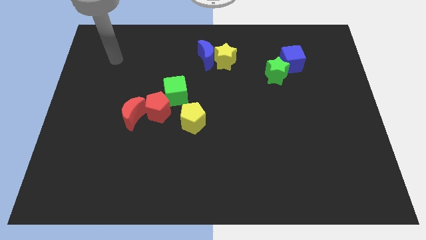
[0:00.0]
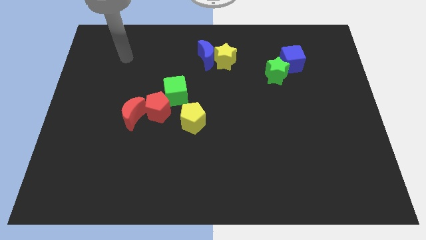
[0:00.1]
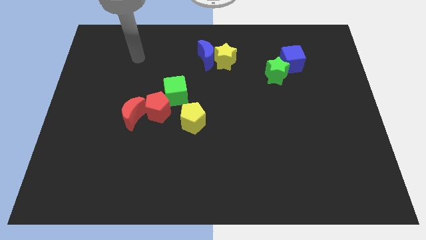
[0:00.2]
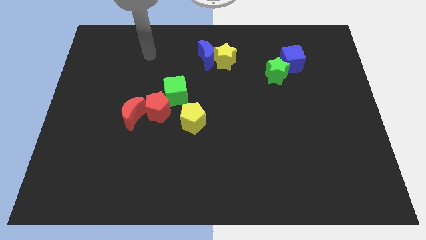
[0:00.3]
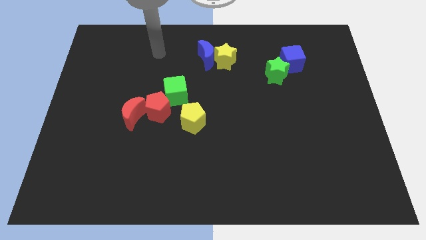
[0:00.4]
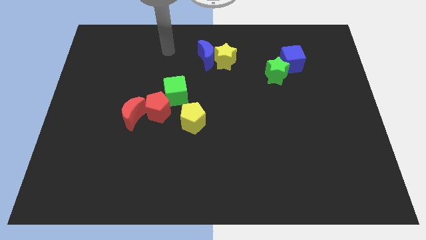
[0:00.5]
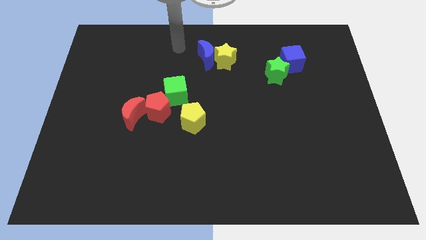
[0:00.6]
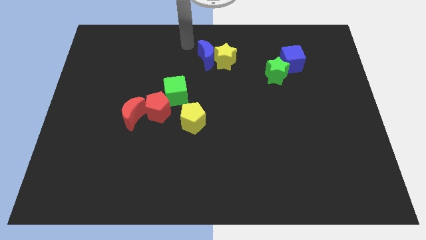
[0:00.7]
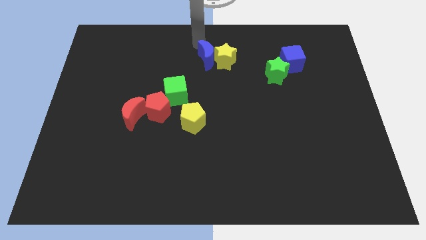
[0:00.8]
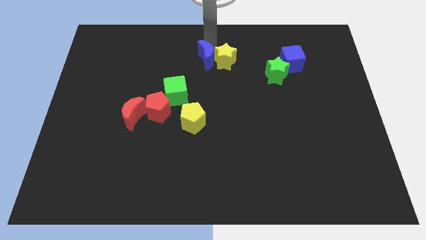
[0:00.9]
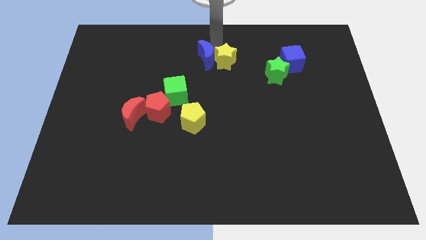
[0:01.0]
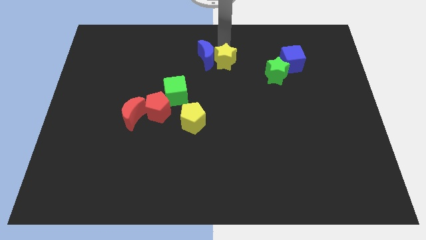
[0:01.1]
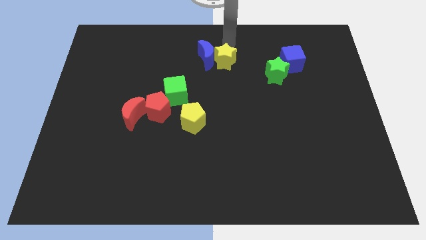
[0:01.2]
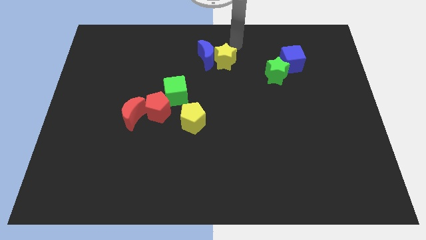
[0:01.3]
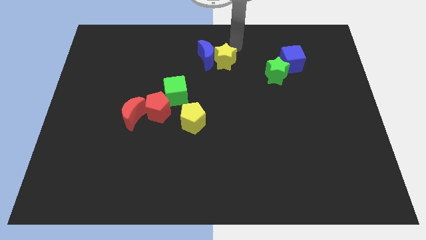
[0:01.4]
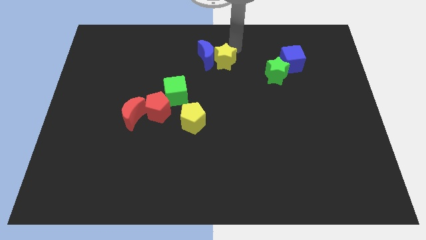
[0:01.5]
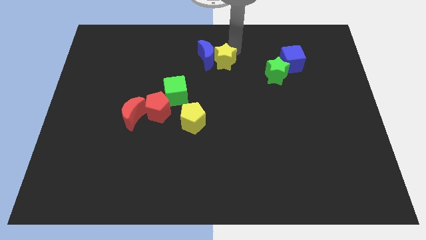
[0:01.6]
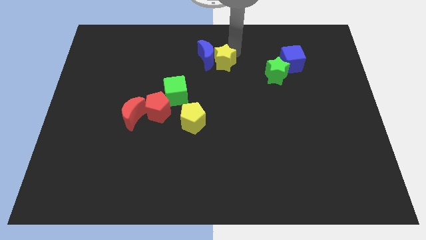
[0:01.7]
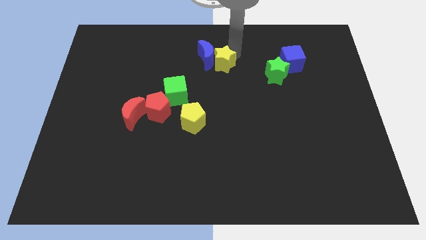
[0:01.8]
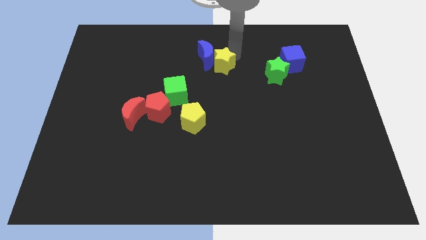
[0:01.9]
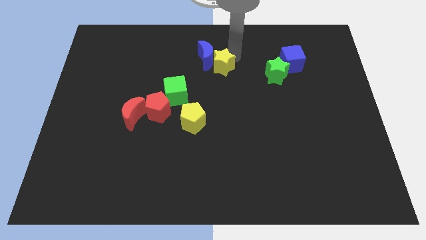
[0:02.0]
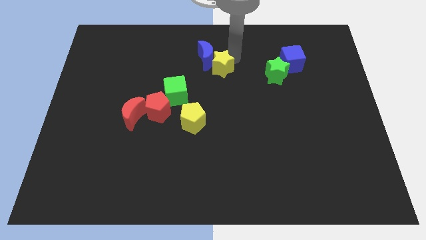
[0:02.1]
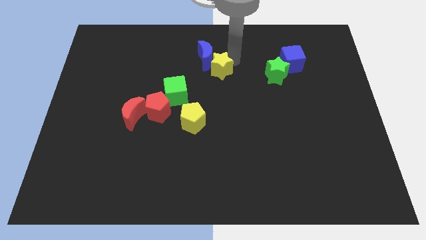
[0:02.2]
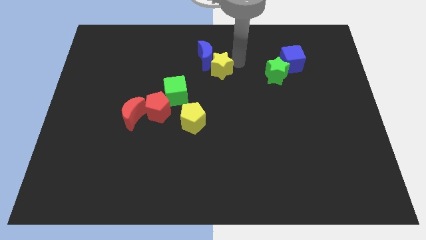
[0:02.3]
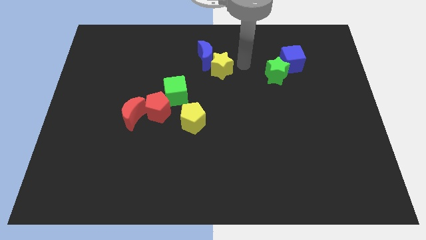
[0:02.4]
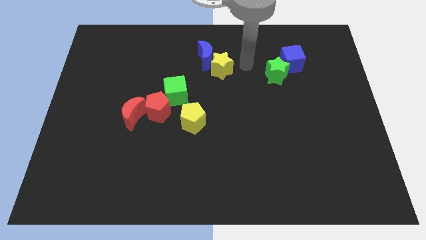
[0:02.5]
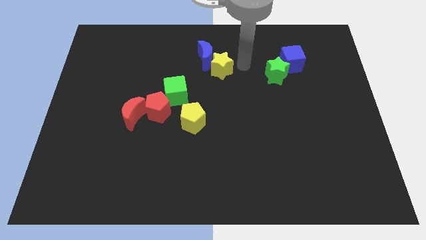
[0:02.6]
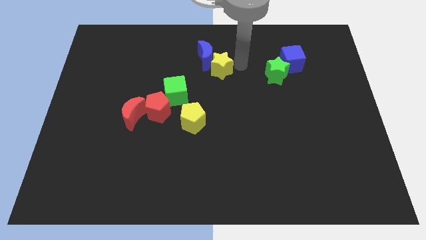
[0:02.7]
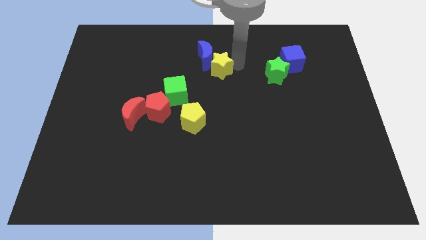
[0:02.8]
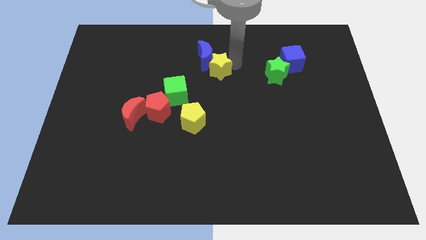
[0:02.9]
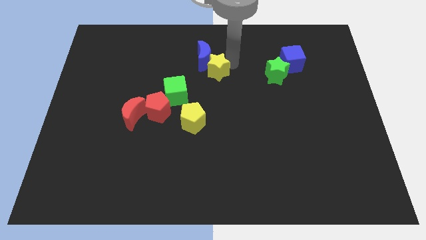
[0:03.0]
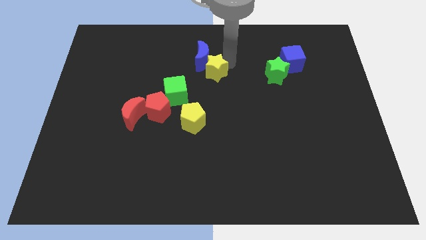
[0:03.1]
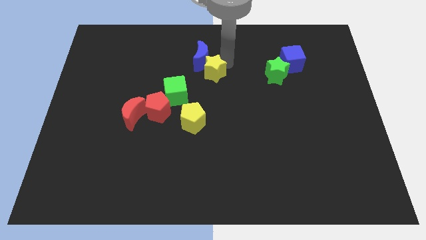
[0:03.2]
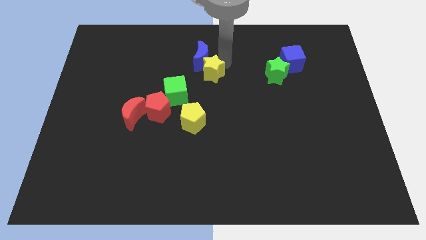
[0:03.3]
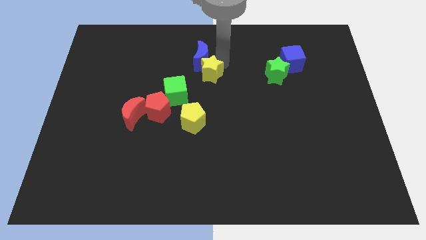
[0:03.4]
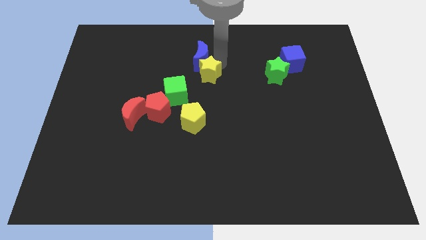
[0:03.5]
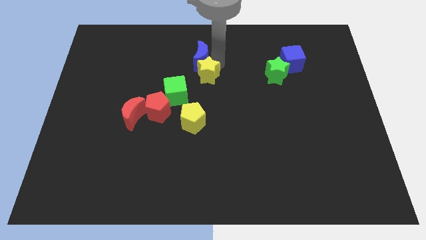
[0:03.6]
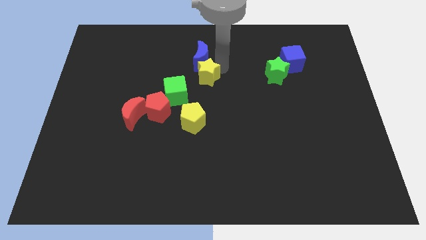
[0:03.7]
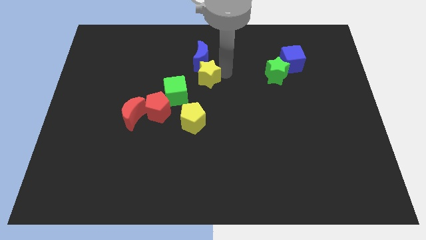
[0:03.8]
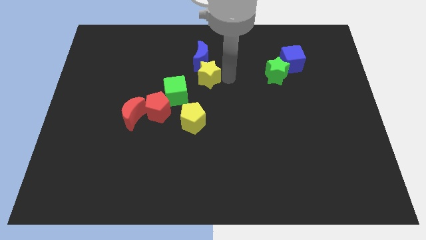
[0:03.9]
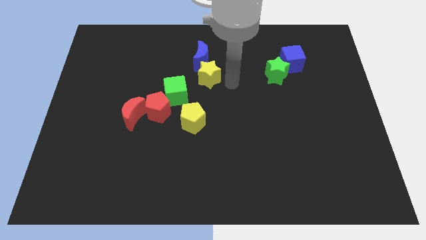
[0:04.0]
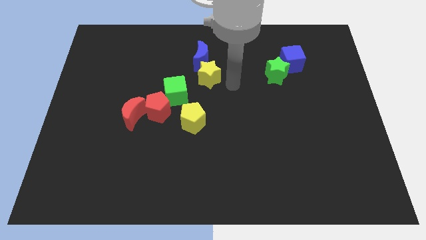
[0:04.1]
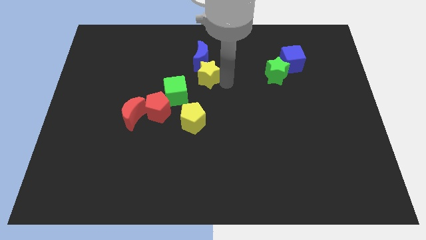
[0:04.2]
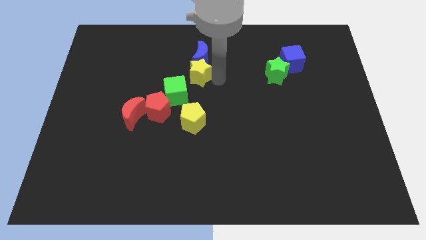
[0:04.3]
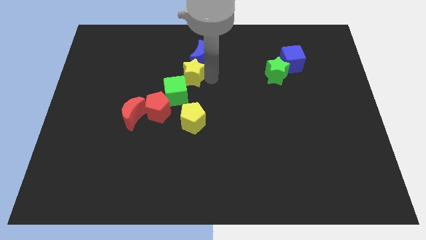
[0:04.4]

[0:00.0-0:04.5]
slightly move the yellow star left

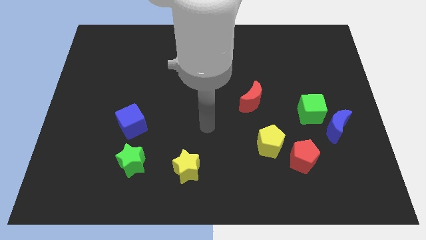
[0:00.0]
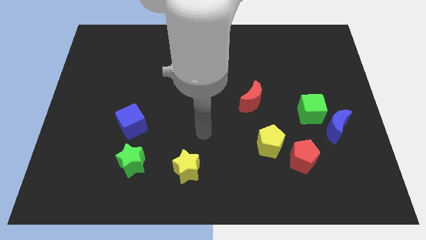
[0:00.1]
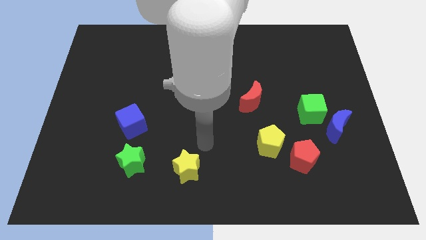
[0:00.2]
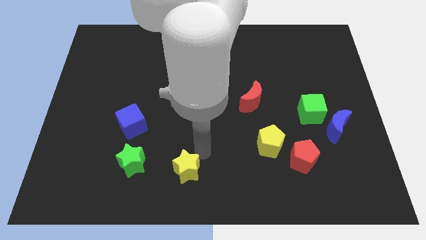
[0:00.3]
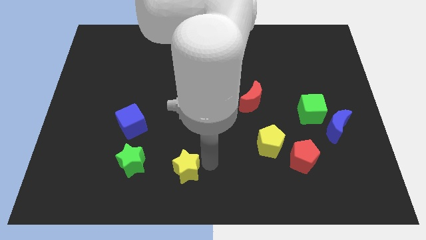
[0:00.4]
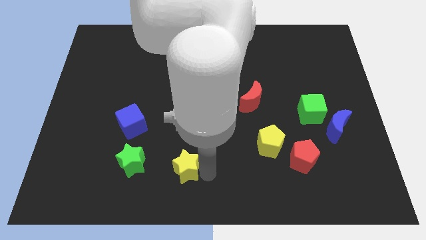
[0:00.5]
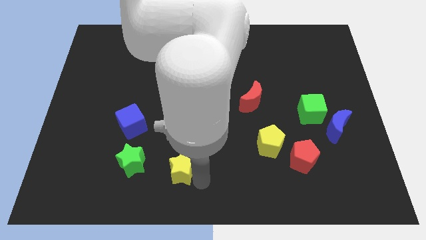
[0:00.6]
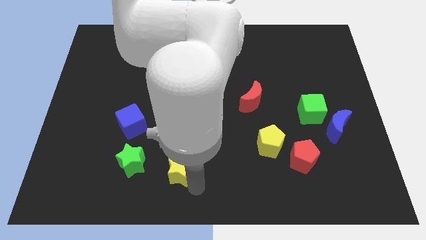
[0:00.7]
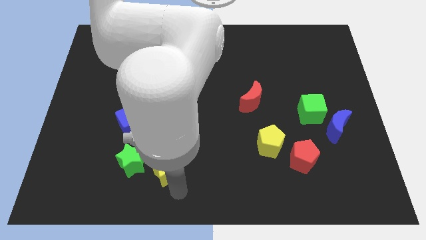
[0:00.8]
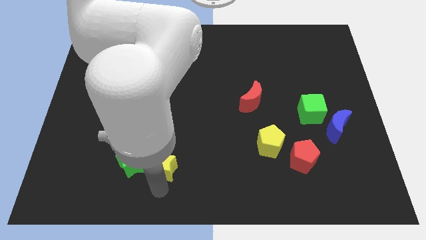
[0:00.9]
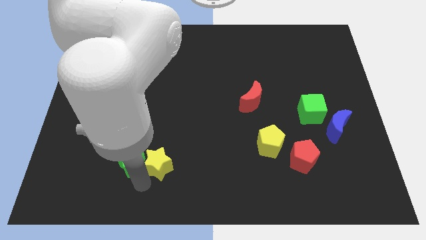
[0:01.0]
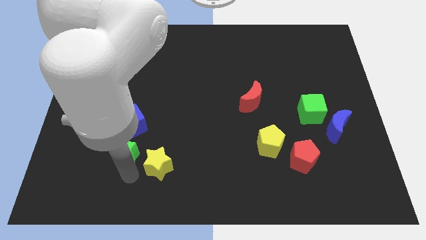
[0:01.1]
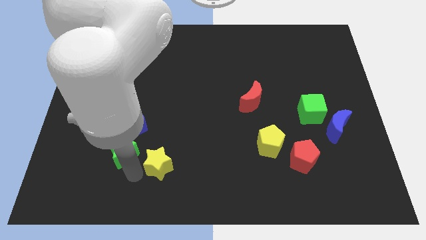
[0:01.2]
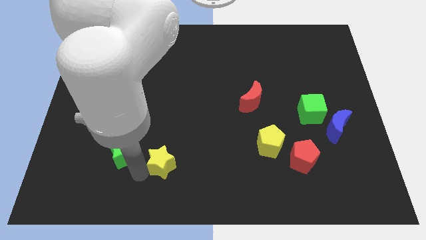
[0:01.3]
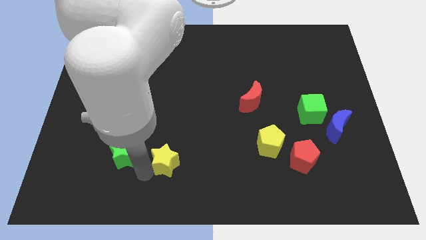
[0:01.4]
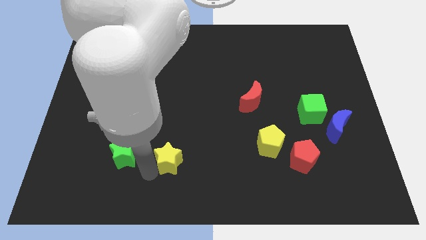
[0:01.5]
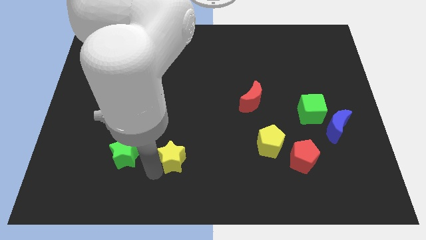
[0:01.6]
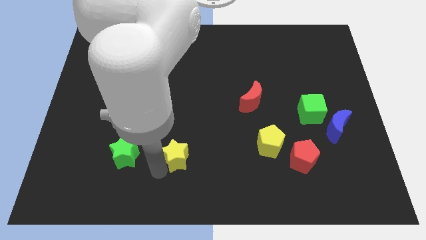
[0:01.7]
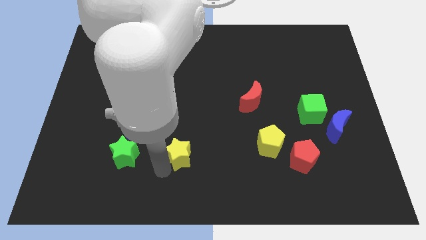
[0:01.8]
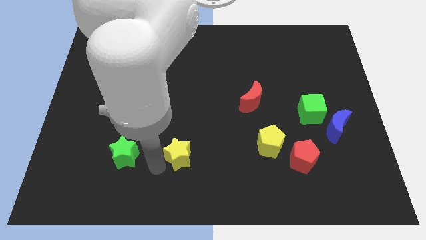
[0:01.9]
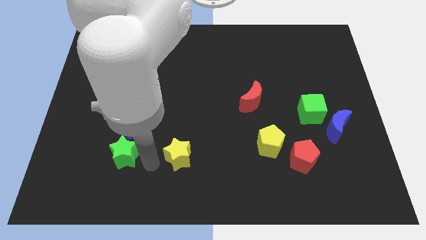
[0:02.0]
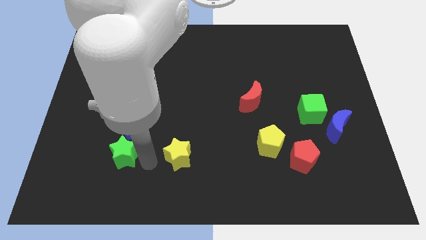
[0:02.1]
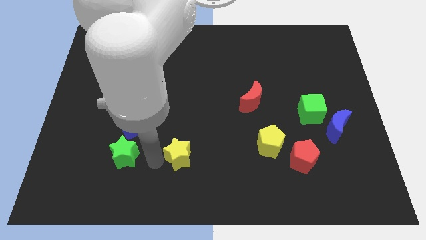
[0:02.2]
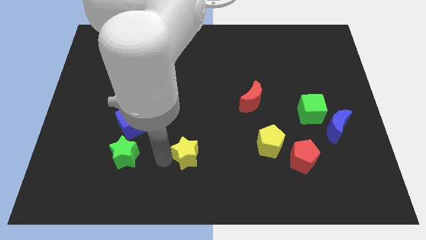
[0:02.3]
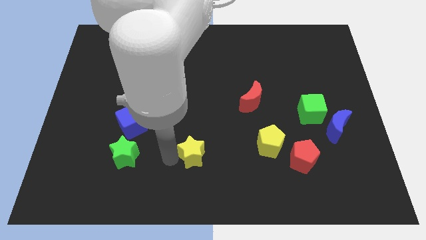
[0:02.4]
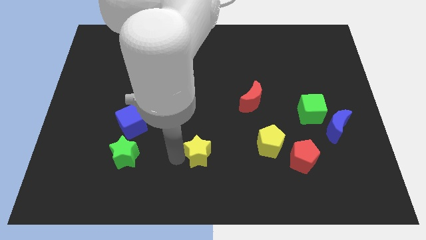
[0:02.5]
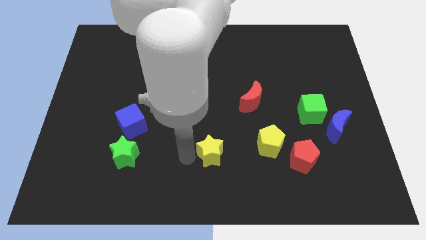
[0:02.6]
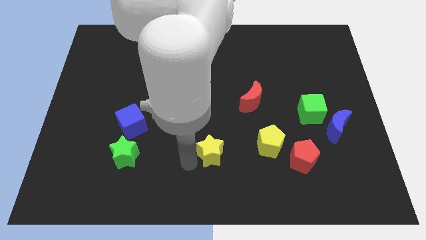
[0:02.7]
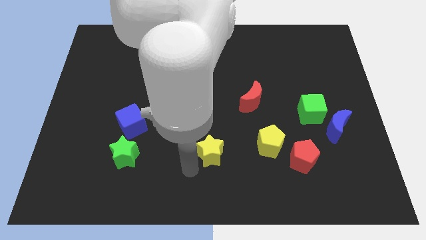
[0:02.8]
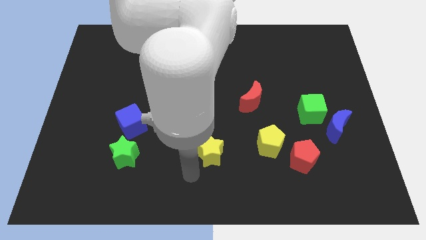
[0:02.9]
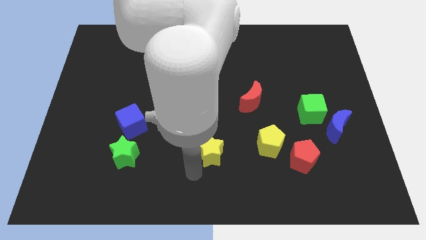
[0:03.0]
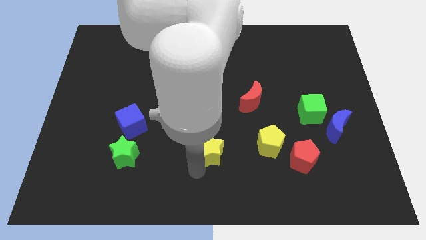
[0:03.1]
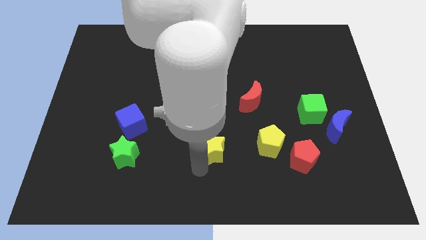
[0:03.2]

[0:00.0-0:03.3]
slightly push the yellow star up and then right

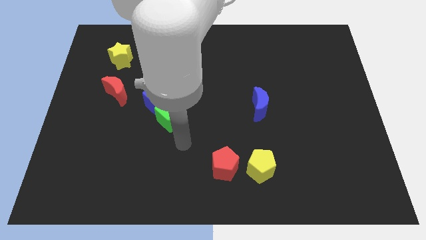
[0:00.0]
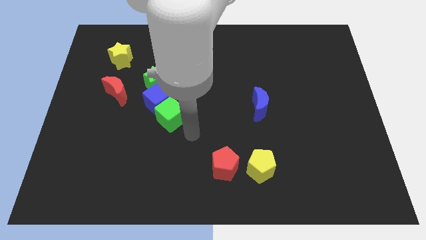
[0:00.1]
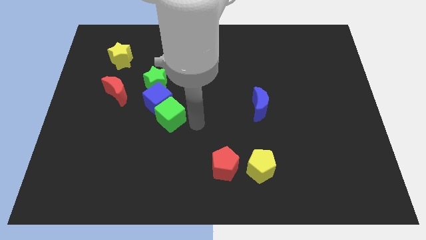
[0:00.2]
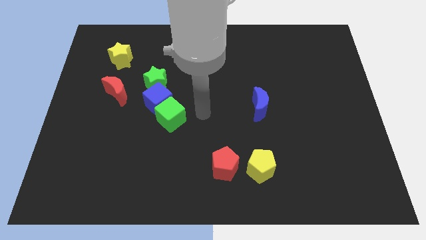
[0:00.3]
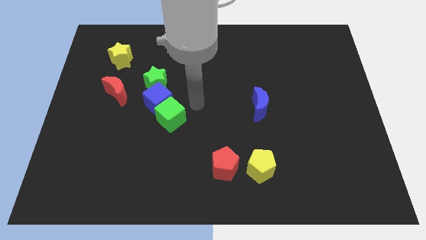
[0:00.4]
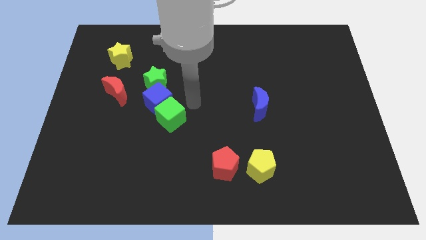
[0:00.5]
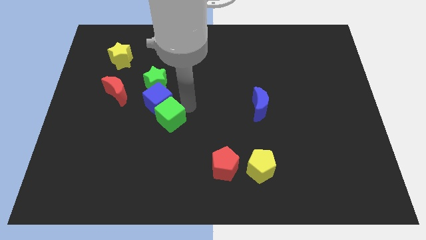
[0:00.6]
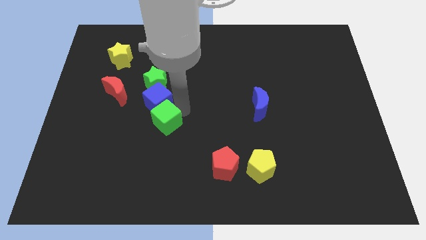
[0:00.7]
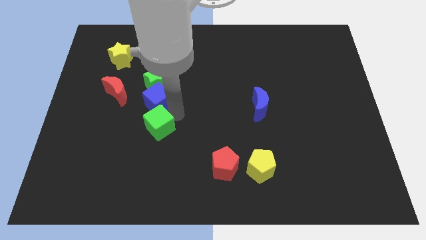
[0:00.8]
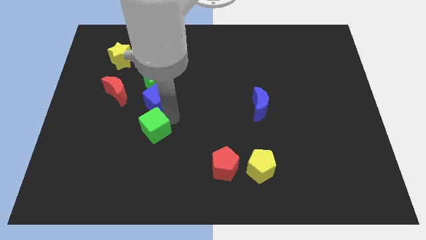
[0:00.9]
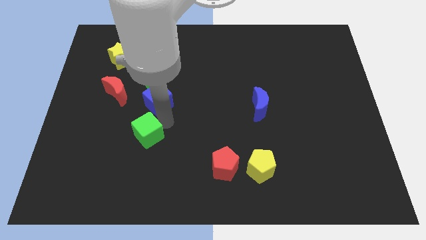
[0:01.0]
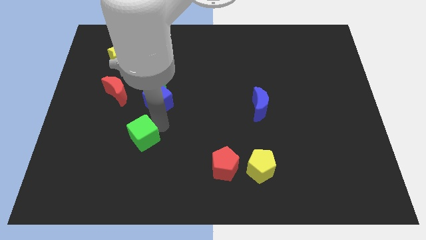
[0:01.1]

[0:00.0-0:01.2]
slightly push the green cube down and to the left
